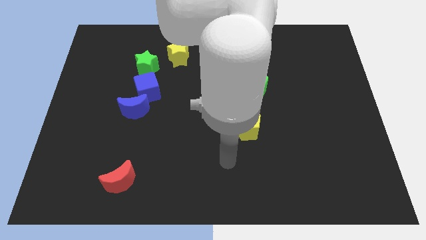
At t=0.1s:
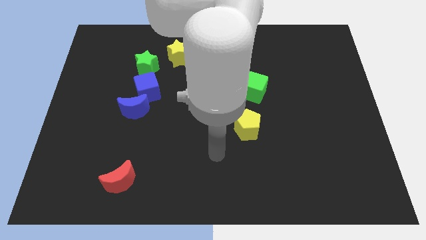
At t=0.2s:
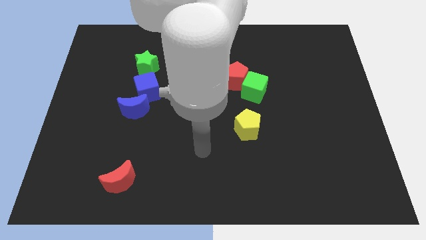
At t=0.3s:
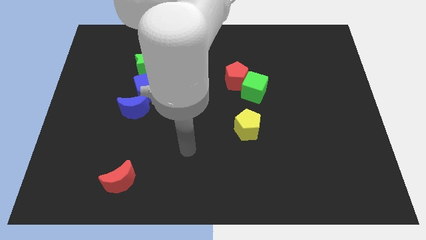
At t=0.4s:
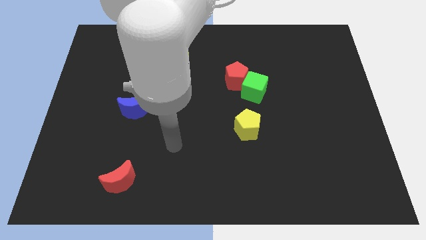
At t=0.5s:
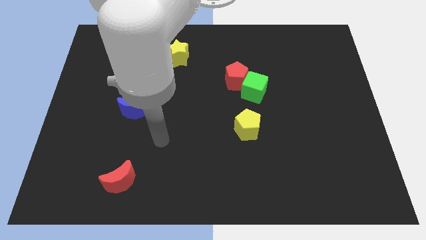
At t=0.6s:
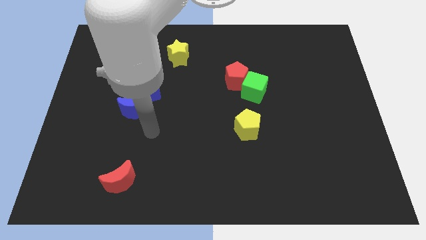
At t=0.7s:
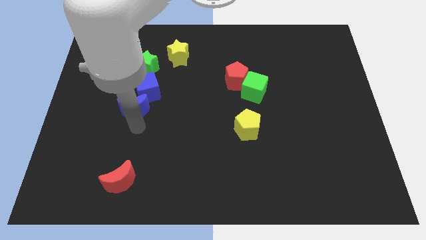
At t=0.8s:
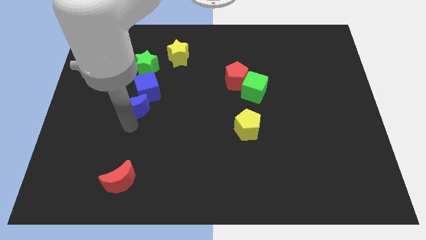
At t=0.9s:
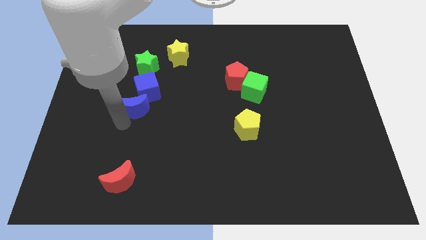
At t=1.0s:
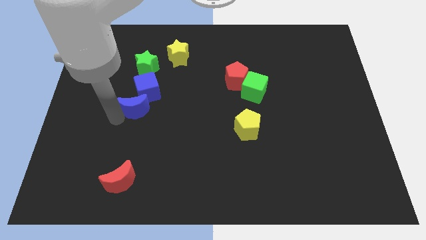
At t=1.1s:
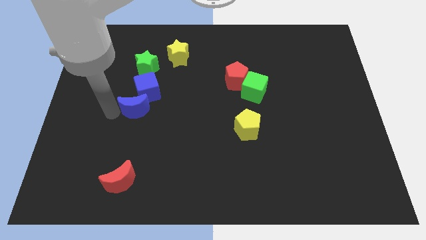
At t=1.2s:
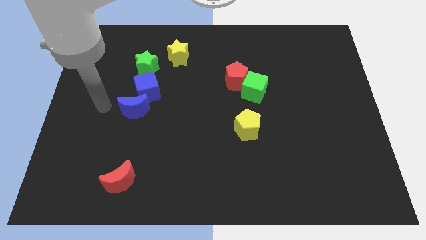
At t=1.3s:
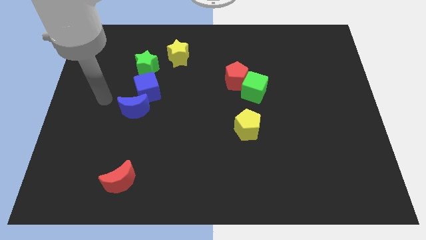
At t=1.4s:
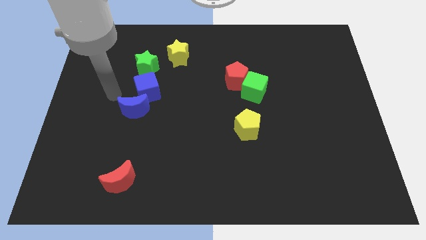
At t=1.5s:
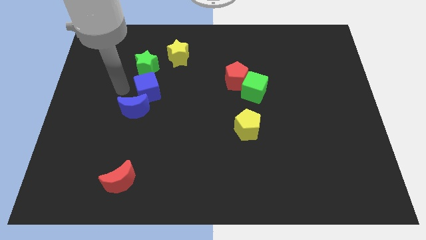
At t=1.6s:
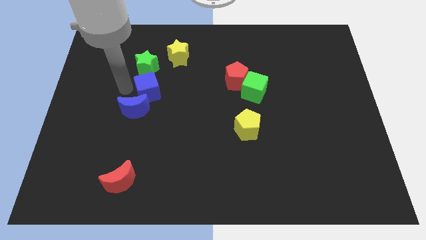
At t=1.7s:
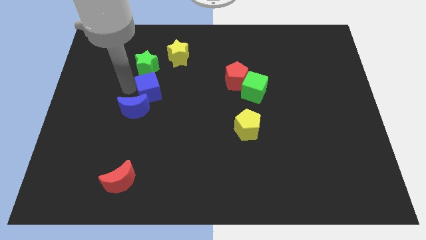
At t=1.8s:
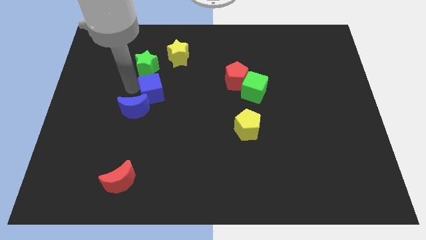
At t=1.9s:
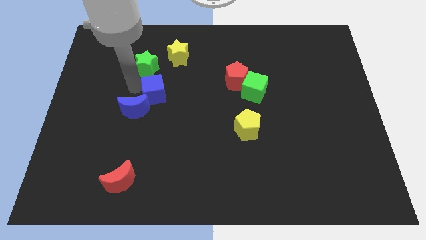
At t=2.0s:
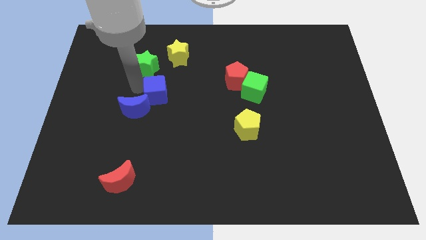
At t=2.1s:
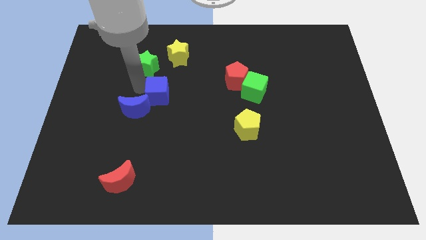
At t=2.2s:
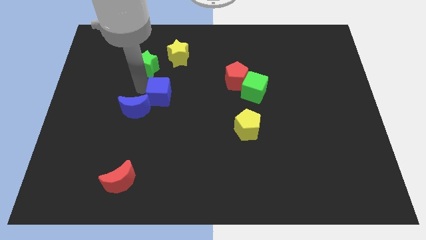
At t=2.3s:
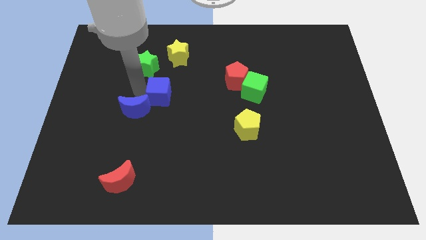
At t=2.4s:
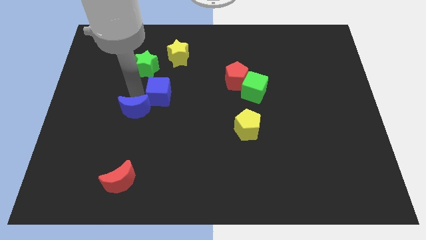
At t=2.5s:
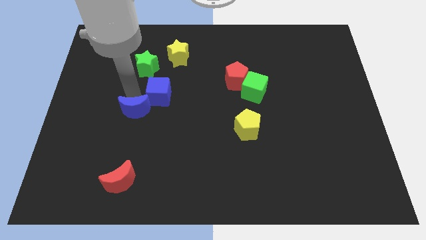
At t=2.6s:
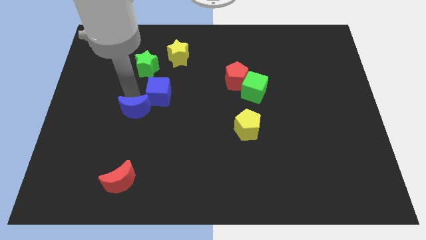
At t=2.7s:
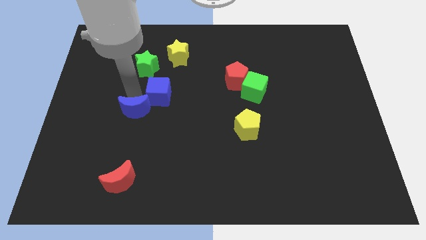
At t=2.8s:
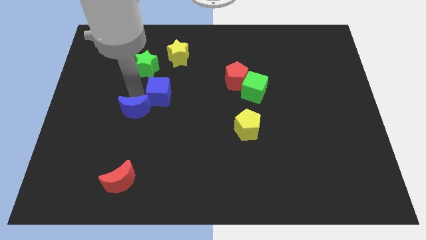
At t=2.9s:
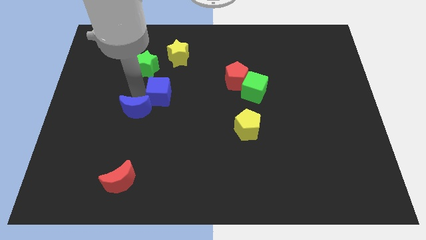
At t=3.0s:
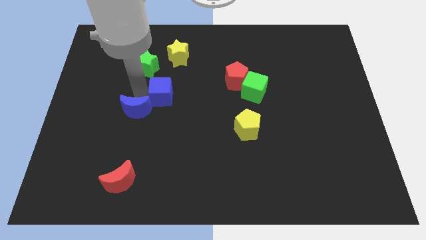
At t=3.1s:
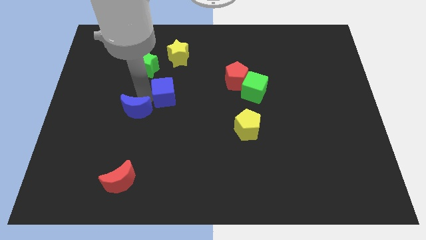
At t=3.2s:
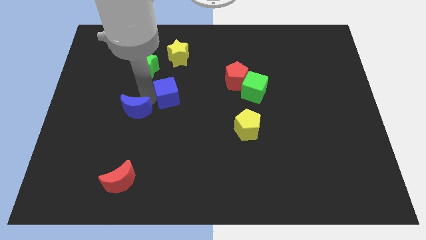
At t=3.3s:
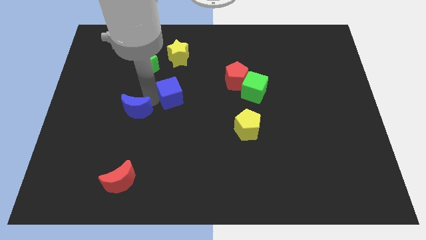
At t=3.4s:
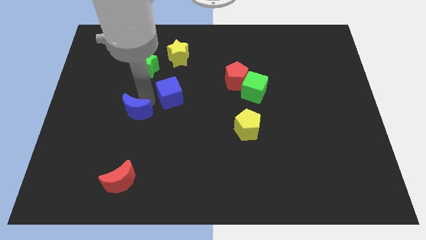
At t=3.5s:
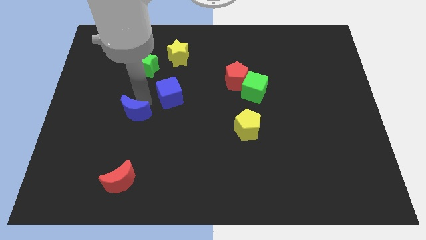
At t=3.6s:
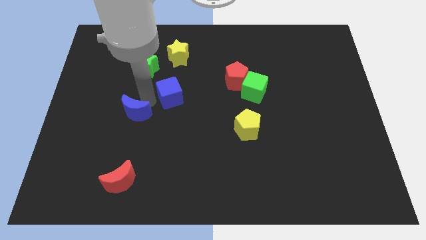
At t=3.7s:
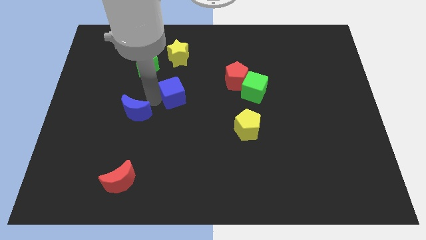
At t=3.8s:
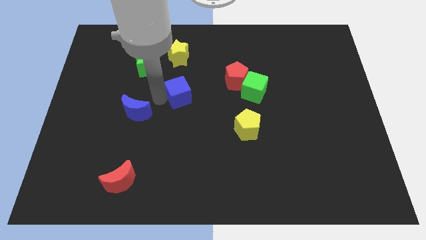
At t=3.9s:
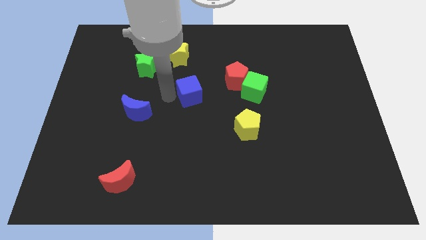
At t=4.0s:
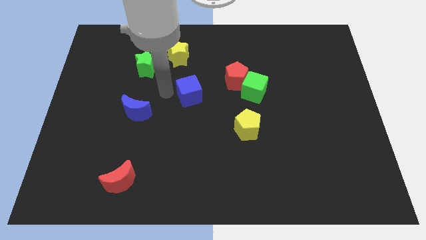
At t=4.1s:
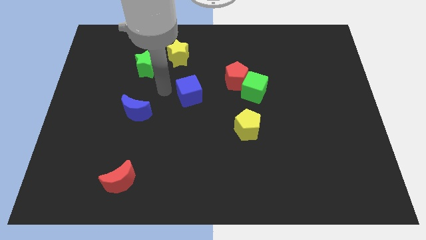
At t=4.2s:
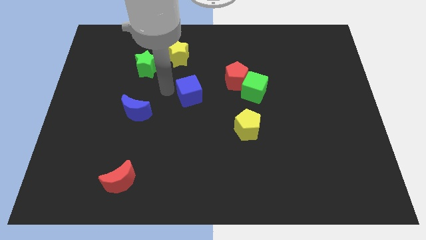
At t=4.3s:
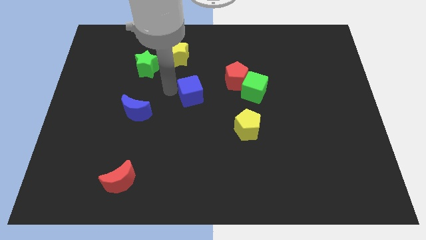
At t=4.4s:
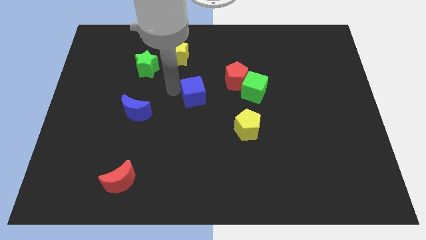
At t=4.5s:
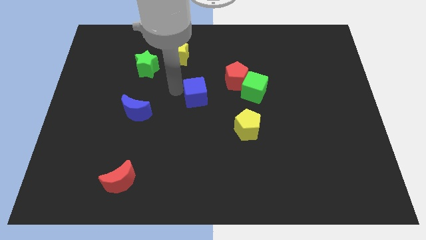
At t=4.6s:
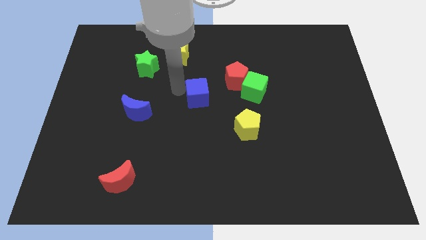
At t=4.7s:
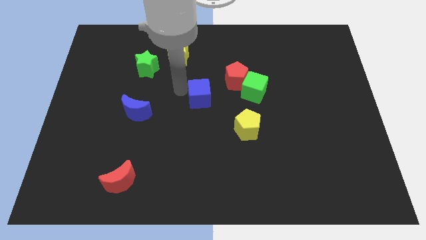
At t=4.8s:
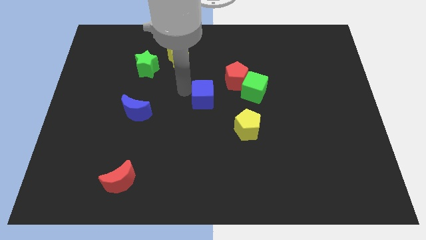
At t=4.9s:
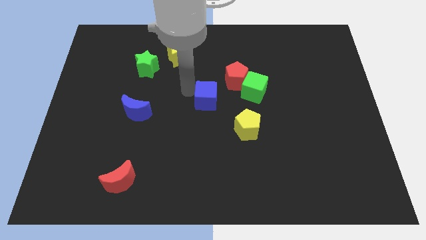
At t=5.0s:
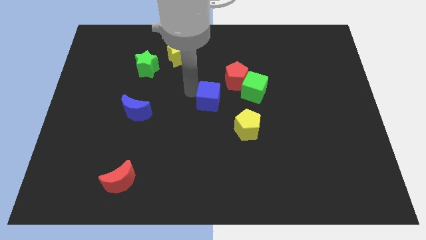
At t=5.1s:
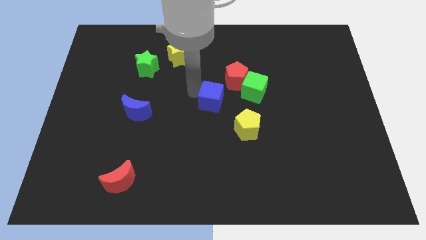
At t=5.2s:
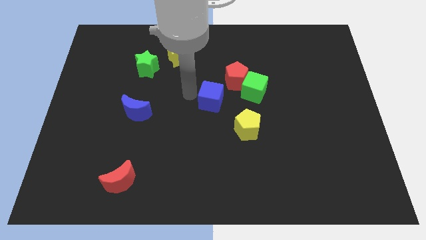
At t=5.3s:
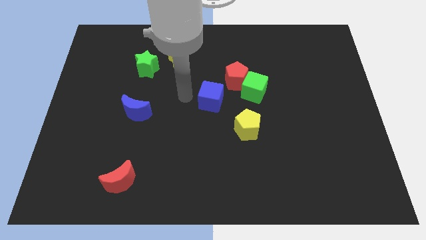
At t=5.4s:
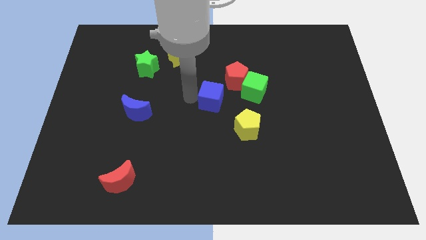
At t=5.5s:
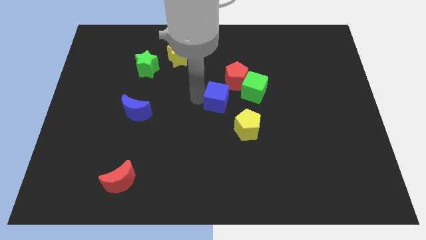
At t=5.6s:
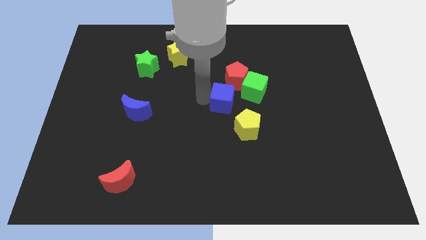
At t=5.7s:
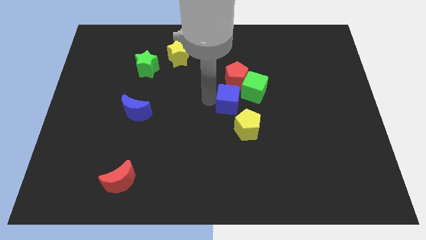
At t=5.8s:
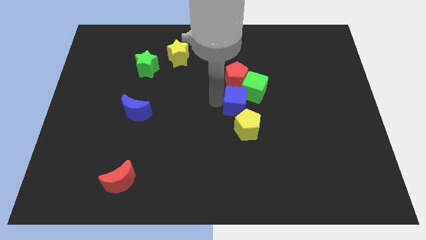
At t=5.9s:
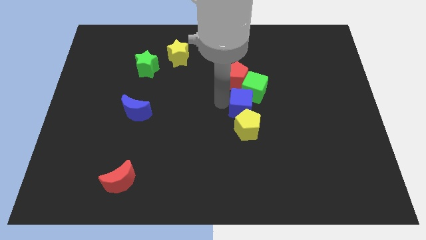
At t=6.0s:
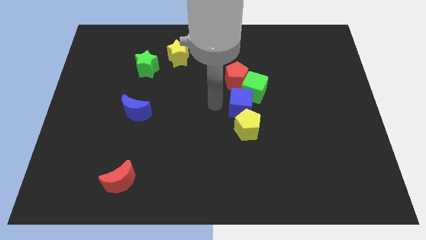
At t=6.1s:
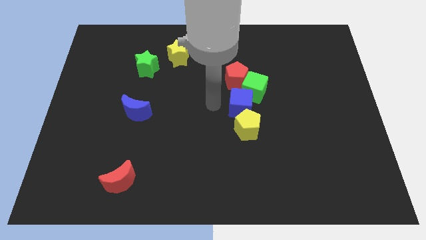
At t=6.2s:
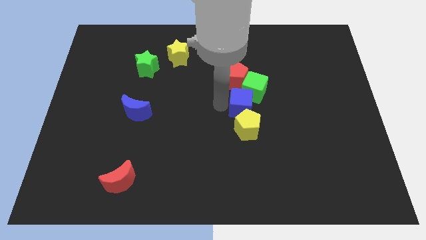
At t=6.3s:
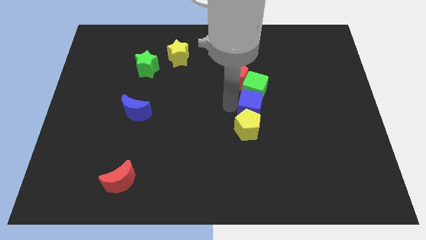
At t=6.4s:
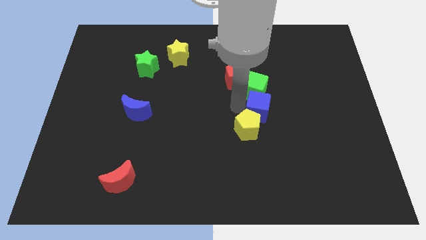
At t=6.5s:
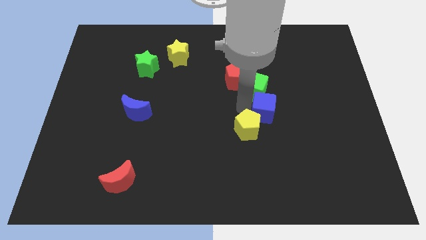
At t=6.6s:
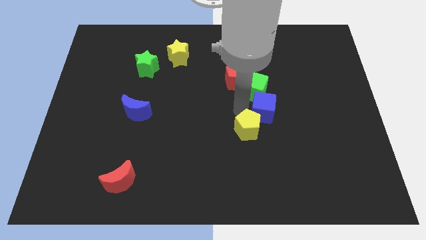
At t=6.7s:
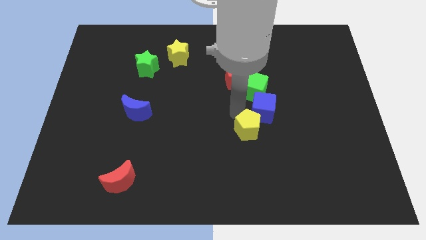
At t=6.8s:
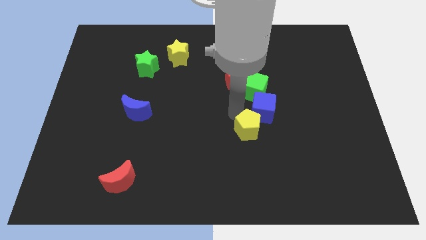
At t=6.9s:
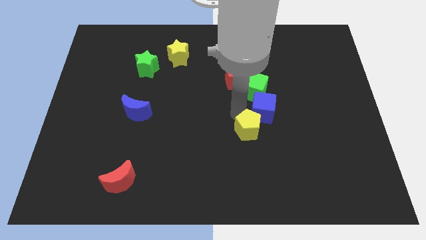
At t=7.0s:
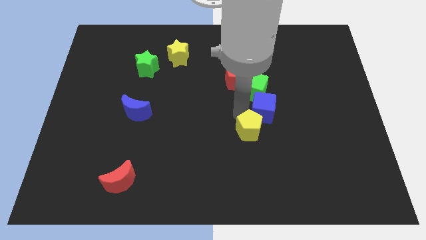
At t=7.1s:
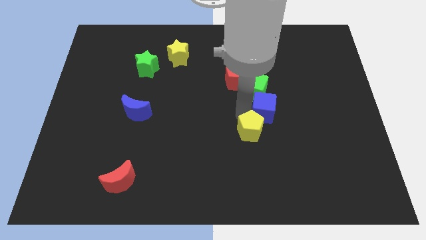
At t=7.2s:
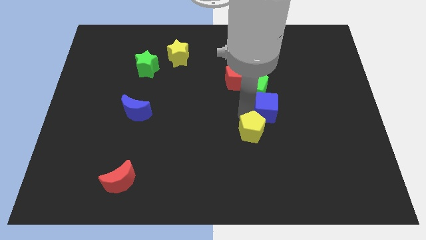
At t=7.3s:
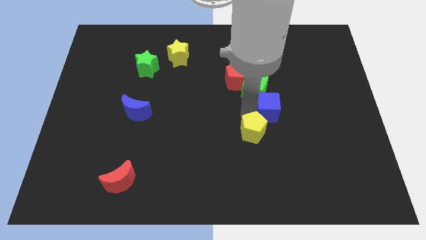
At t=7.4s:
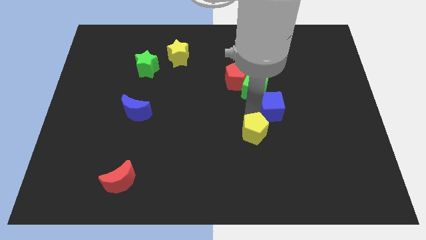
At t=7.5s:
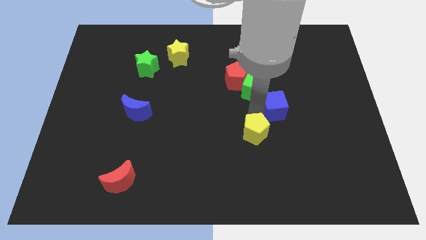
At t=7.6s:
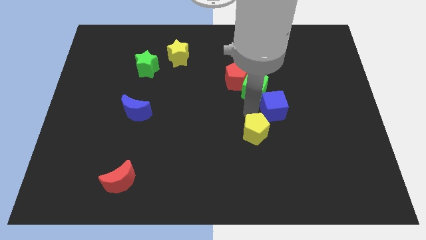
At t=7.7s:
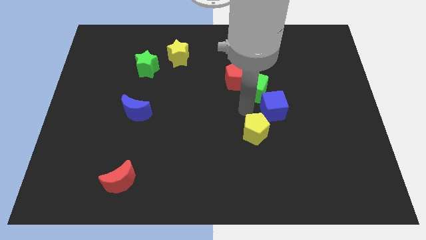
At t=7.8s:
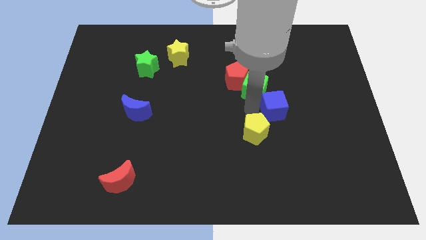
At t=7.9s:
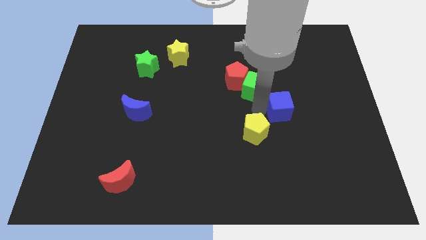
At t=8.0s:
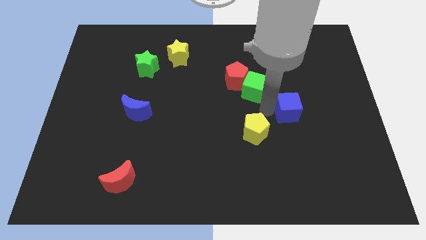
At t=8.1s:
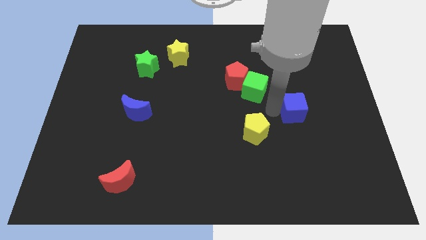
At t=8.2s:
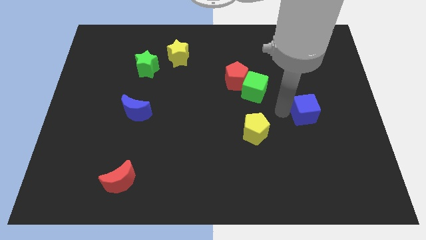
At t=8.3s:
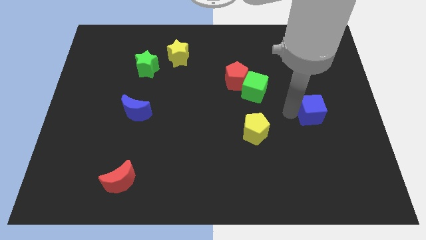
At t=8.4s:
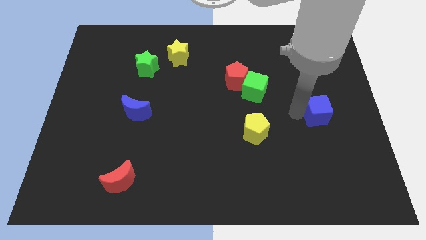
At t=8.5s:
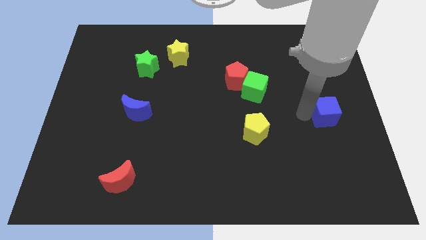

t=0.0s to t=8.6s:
move the blue cube to the center right
